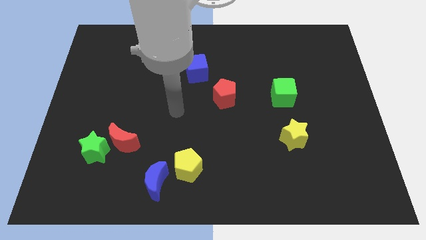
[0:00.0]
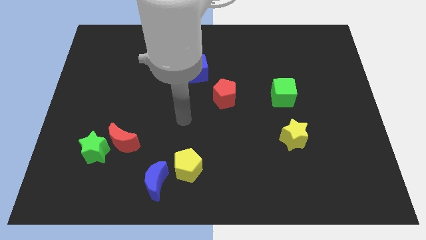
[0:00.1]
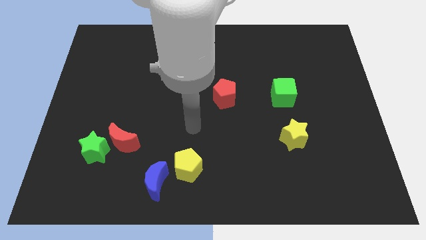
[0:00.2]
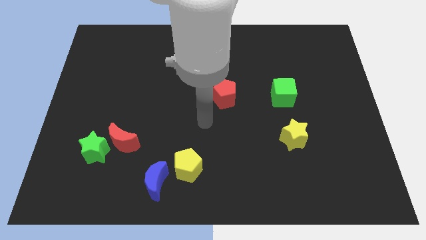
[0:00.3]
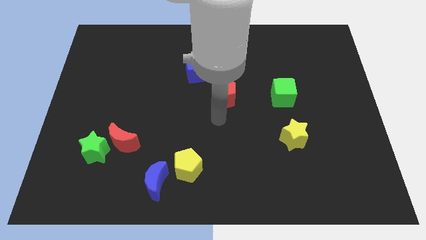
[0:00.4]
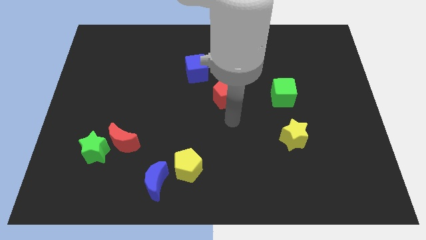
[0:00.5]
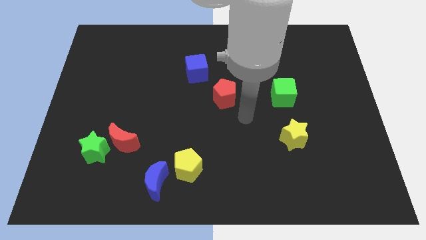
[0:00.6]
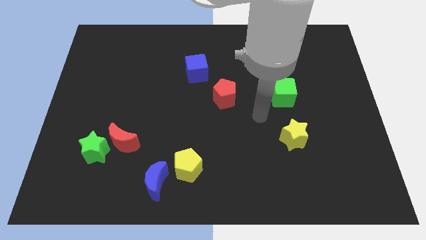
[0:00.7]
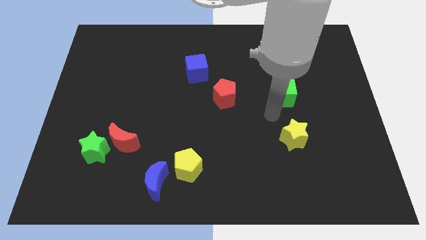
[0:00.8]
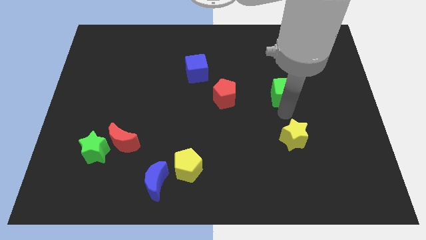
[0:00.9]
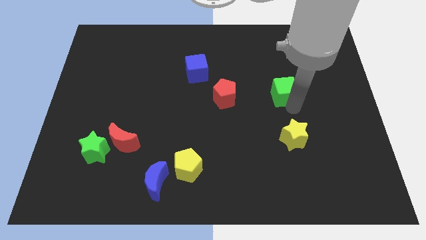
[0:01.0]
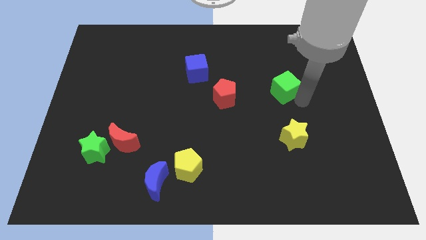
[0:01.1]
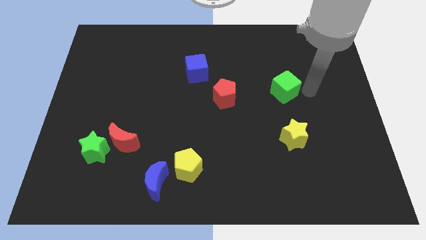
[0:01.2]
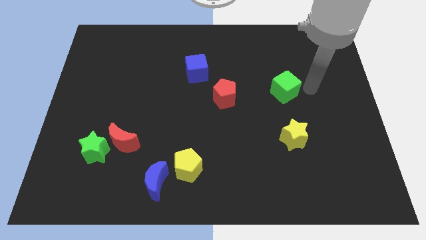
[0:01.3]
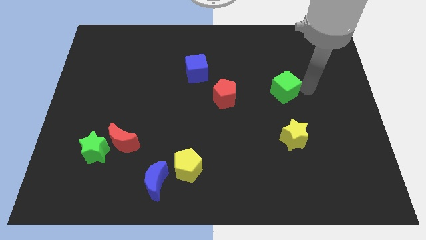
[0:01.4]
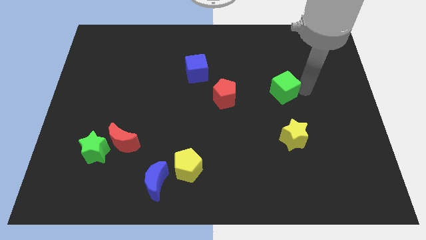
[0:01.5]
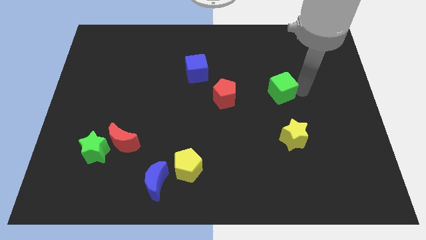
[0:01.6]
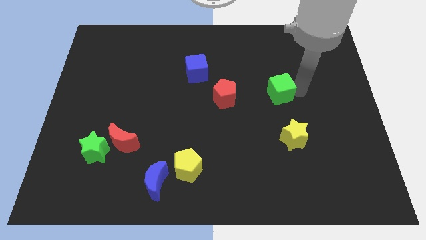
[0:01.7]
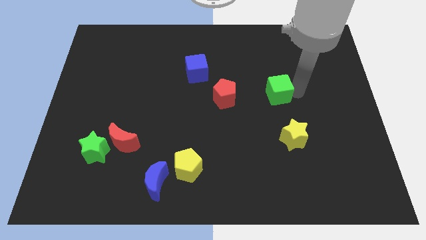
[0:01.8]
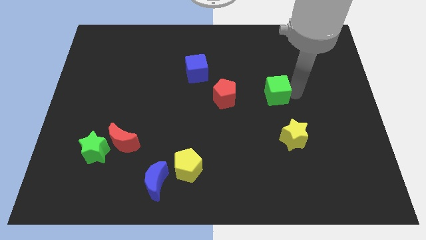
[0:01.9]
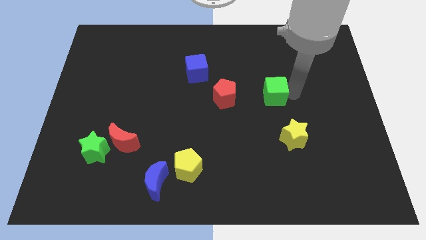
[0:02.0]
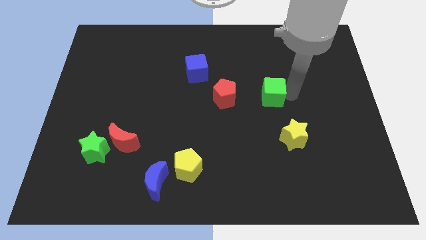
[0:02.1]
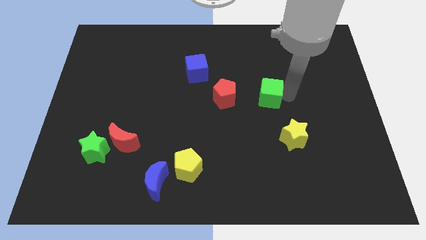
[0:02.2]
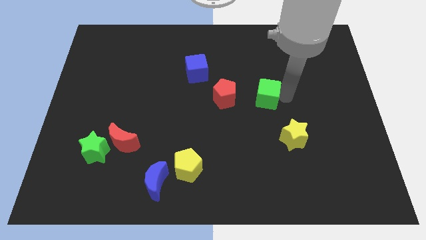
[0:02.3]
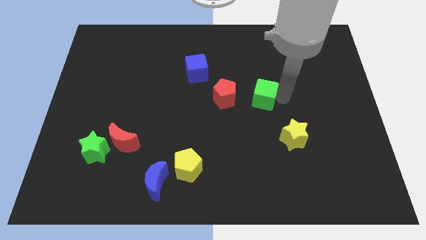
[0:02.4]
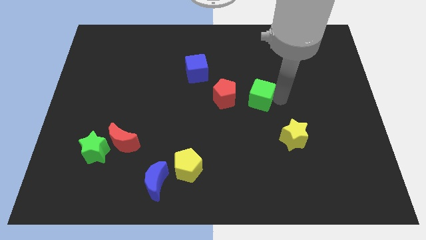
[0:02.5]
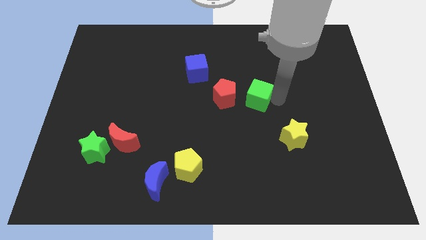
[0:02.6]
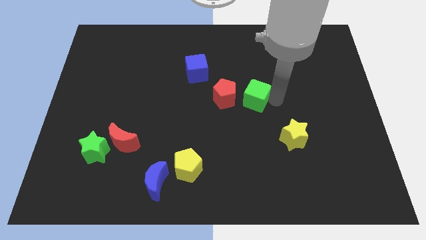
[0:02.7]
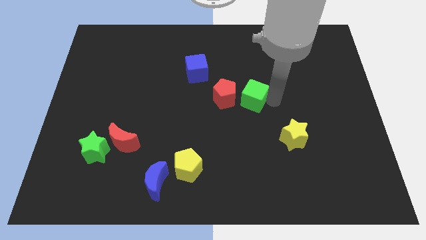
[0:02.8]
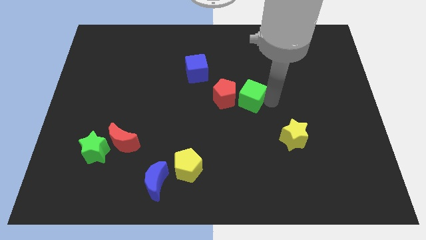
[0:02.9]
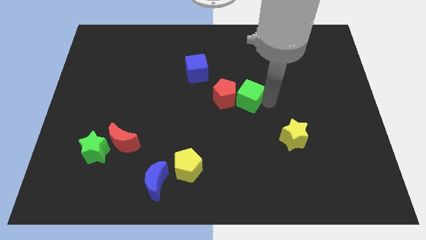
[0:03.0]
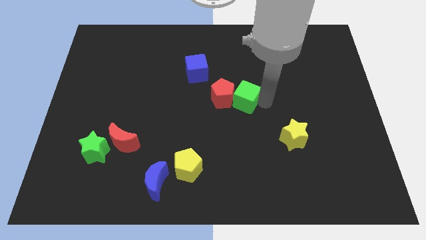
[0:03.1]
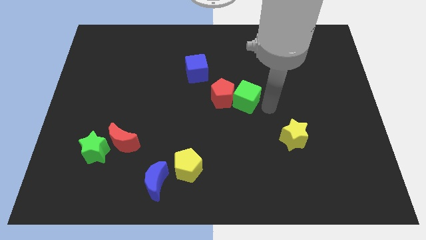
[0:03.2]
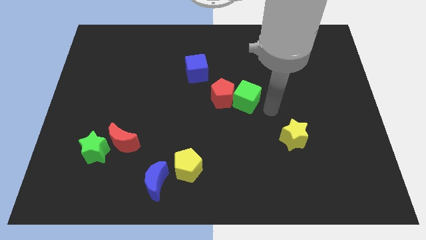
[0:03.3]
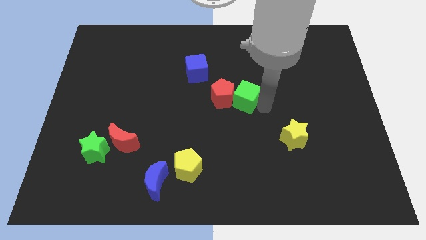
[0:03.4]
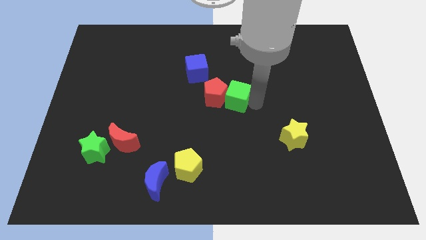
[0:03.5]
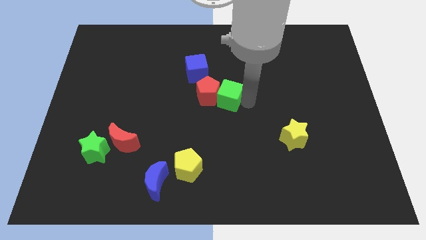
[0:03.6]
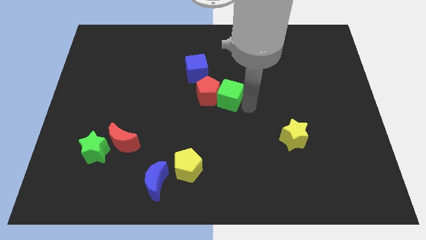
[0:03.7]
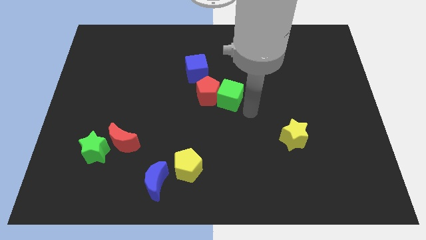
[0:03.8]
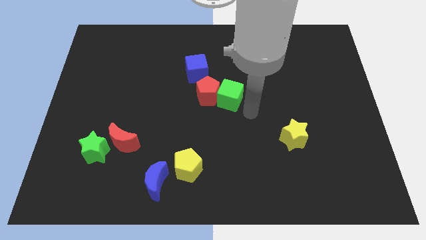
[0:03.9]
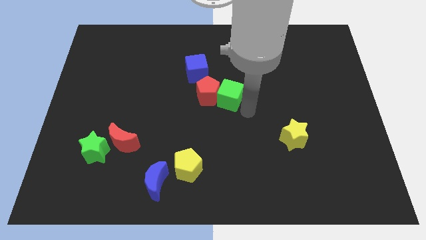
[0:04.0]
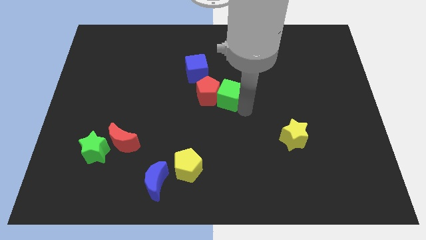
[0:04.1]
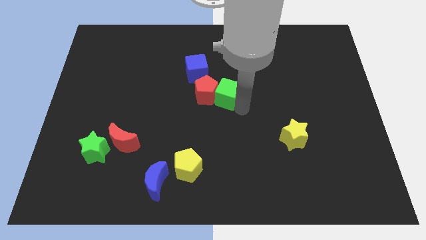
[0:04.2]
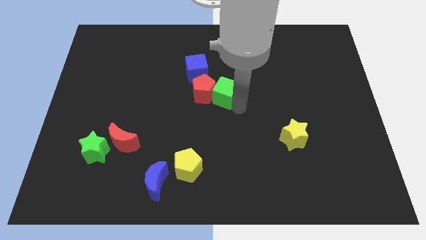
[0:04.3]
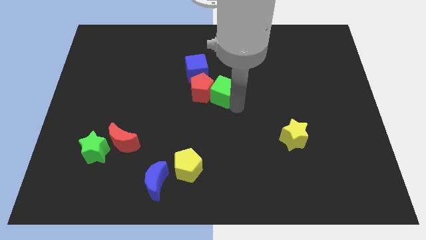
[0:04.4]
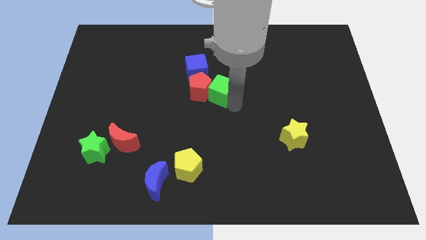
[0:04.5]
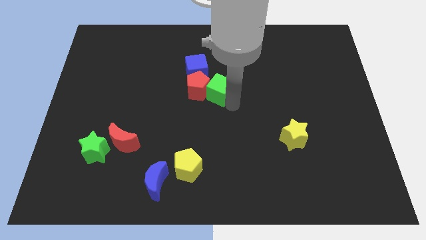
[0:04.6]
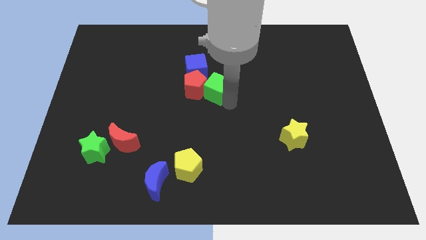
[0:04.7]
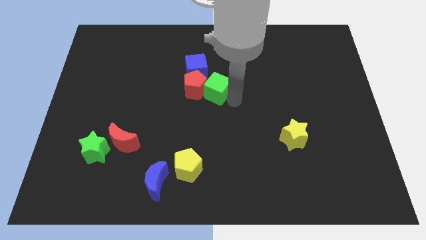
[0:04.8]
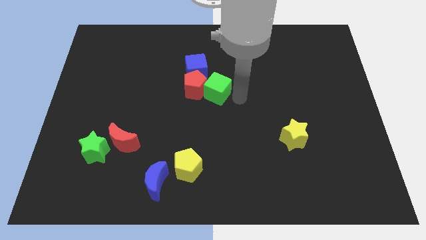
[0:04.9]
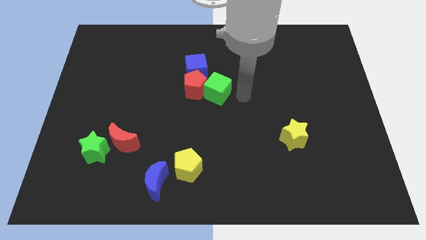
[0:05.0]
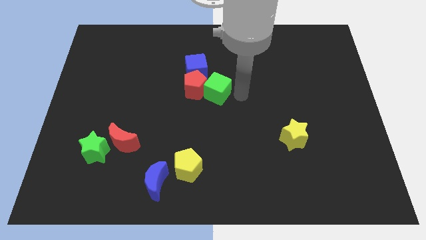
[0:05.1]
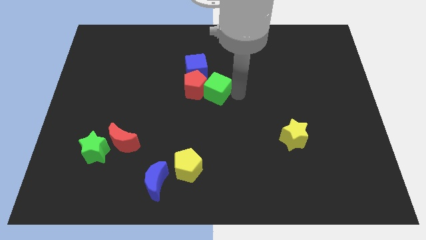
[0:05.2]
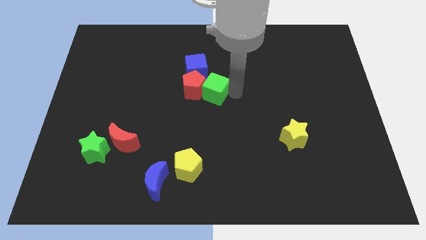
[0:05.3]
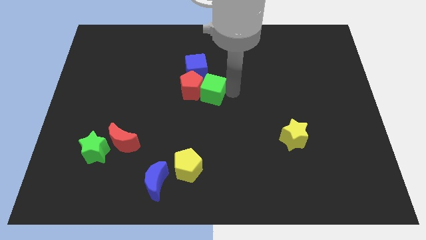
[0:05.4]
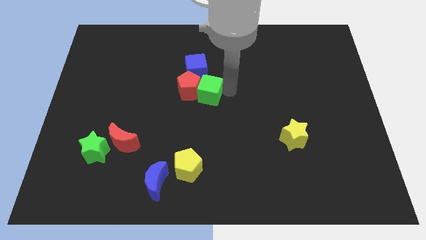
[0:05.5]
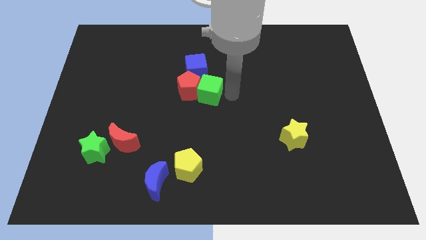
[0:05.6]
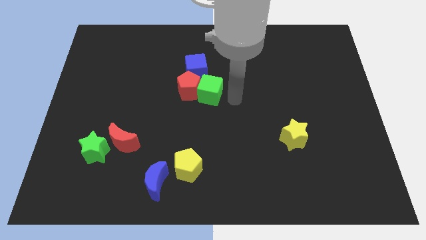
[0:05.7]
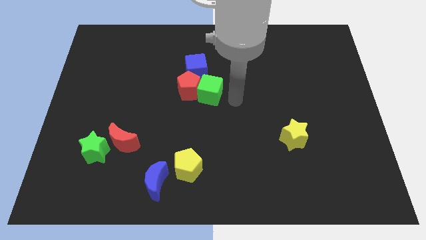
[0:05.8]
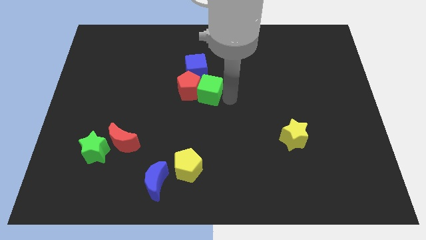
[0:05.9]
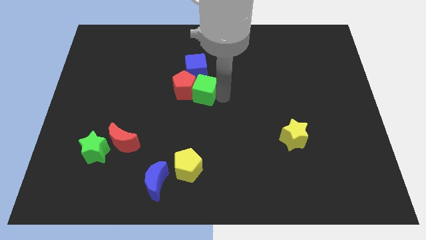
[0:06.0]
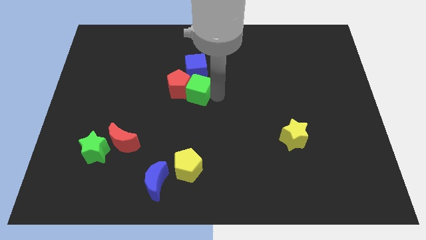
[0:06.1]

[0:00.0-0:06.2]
push the green cube to the left

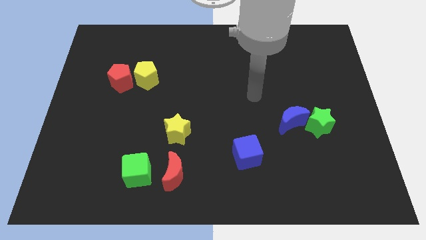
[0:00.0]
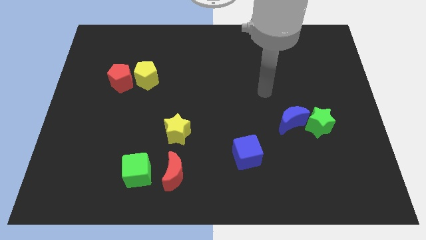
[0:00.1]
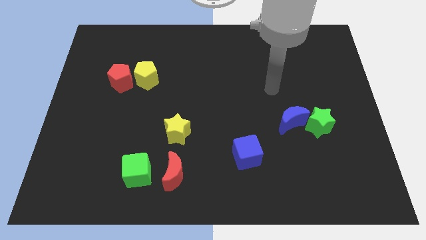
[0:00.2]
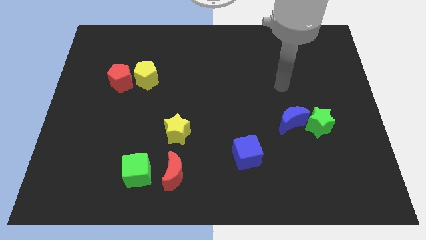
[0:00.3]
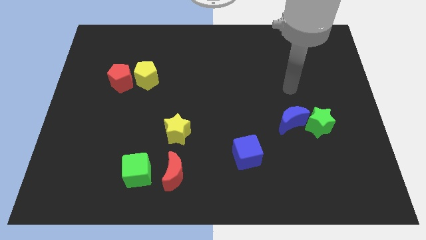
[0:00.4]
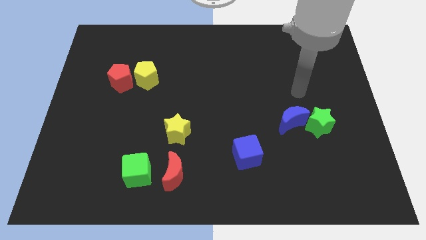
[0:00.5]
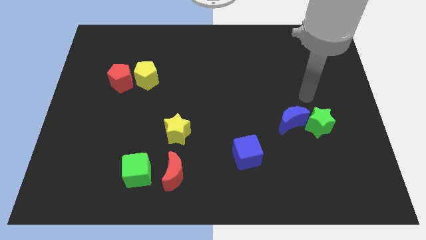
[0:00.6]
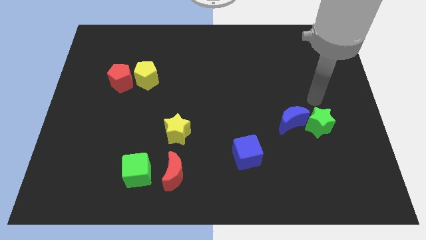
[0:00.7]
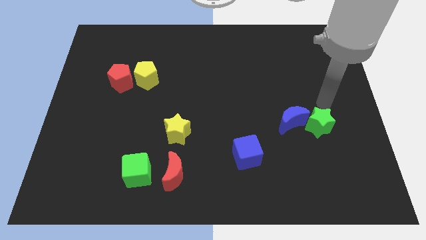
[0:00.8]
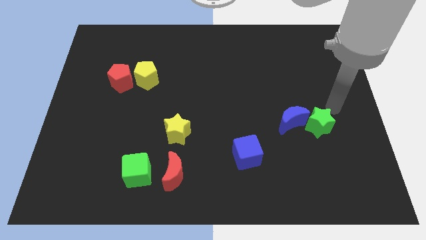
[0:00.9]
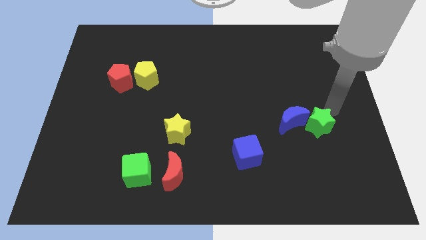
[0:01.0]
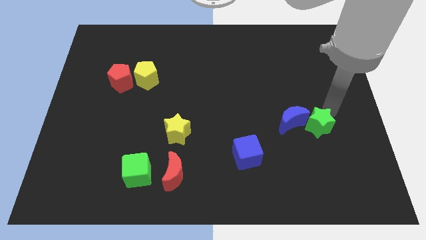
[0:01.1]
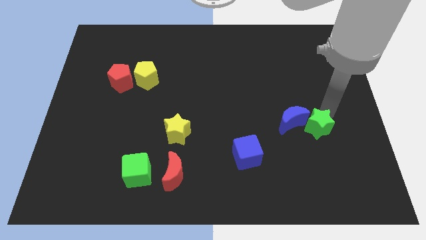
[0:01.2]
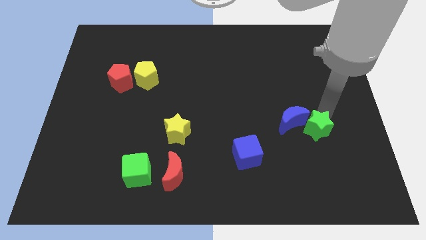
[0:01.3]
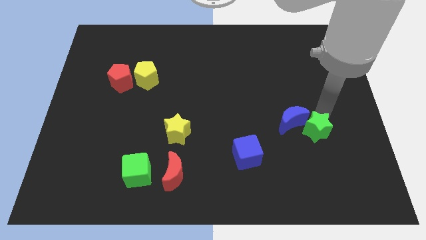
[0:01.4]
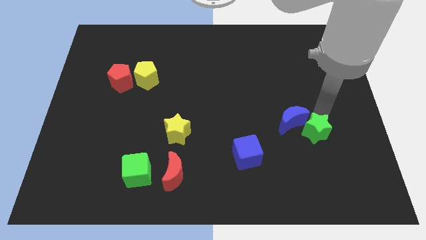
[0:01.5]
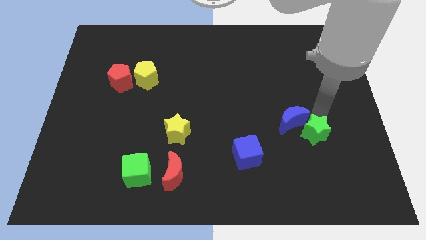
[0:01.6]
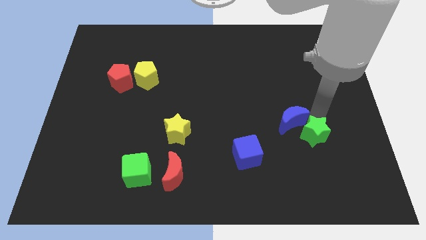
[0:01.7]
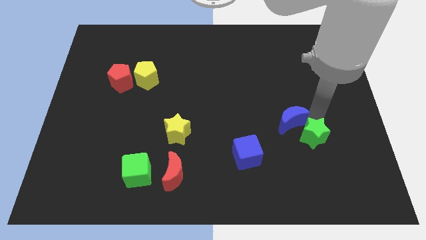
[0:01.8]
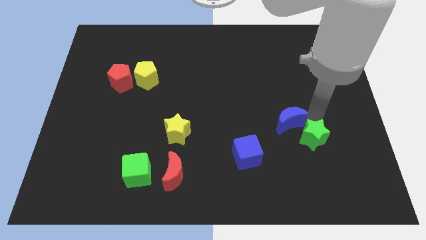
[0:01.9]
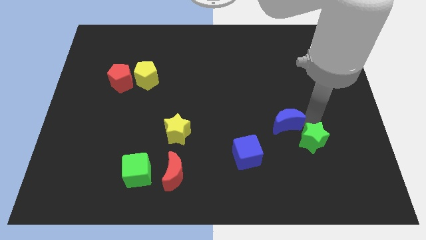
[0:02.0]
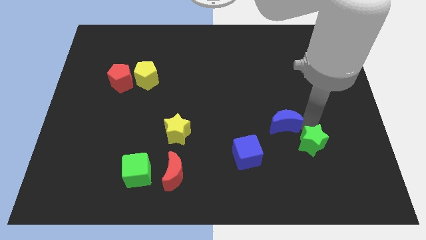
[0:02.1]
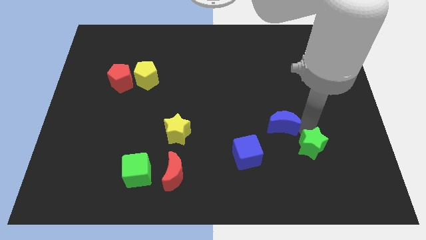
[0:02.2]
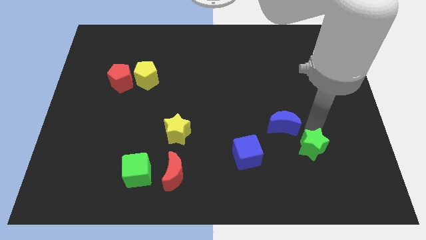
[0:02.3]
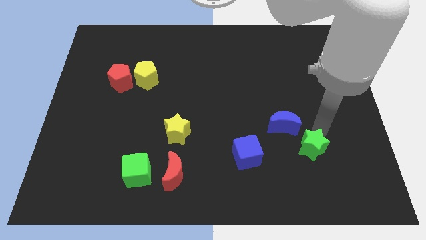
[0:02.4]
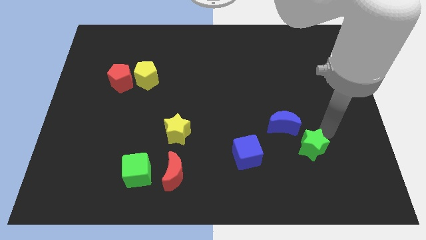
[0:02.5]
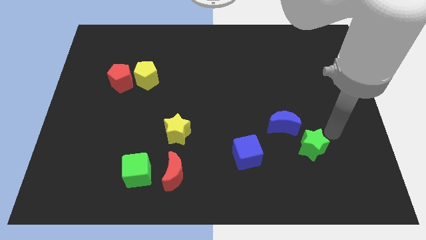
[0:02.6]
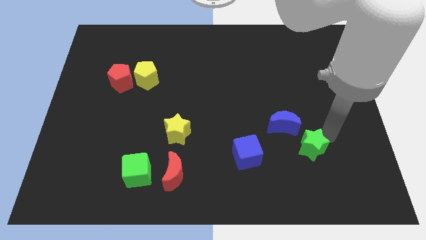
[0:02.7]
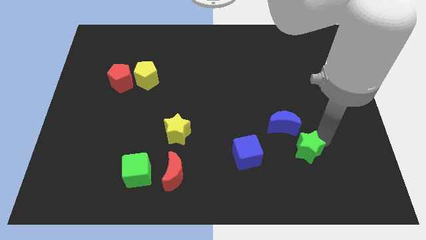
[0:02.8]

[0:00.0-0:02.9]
push the green star slightly downwards and to the left diagonally
